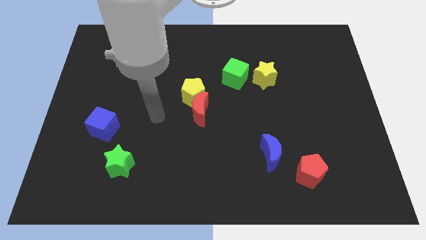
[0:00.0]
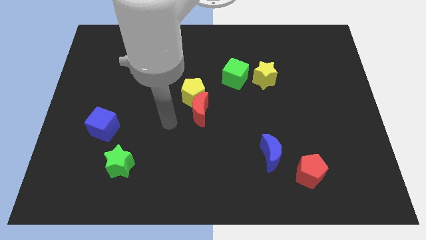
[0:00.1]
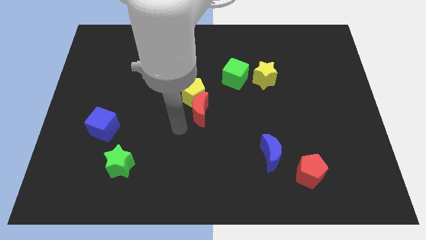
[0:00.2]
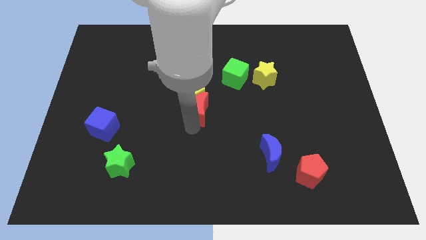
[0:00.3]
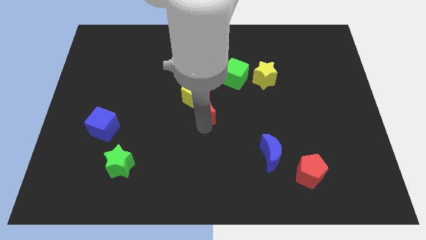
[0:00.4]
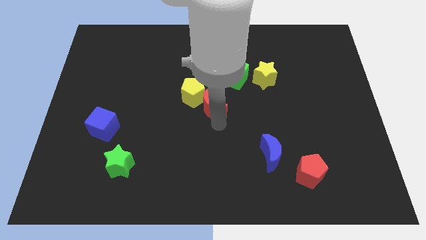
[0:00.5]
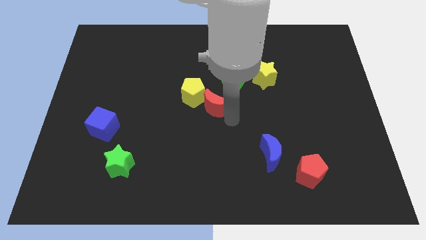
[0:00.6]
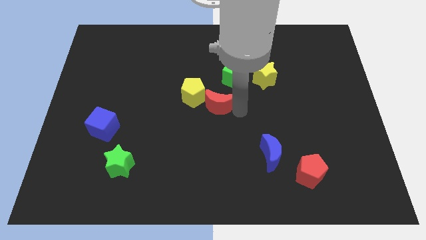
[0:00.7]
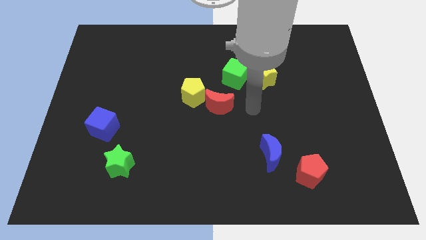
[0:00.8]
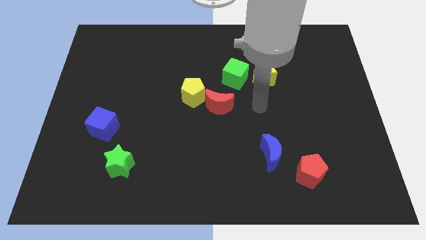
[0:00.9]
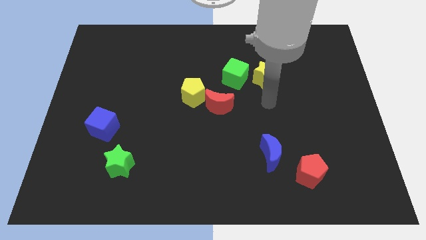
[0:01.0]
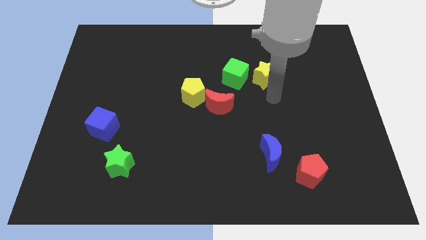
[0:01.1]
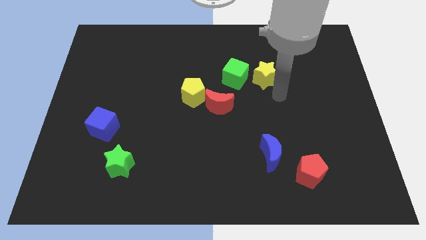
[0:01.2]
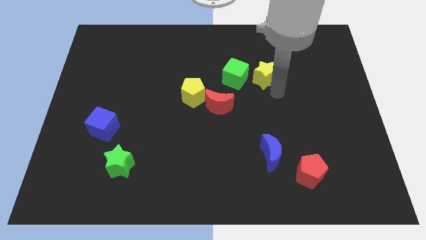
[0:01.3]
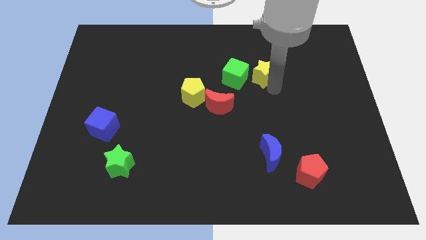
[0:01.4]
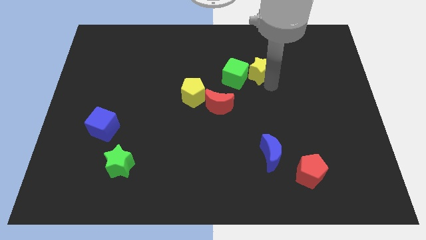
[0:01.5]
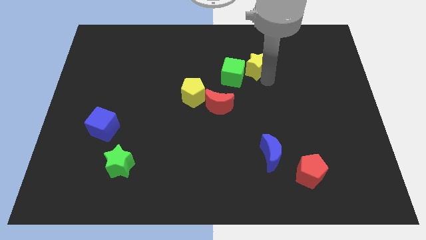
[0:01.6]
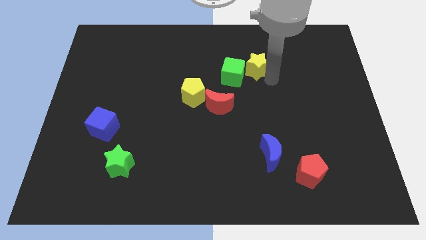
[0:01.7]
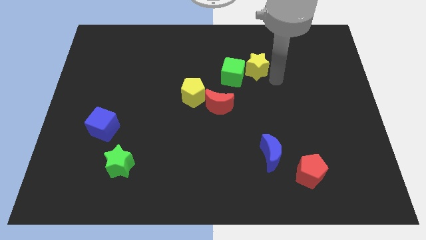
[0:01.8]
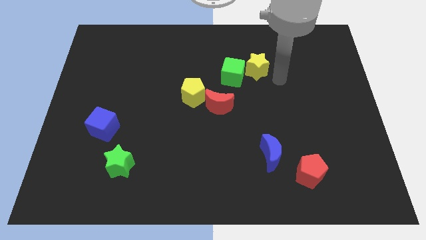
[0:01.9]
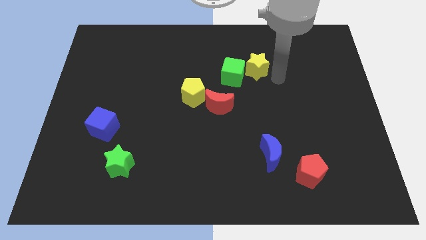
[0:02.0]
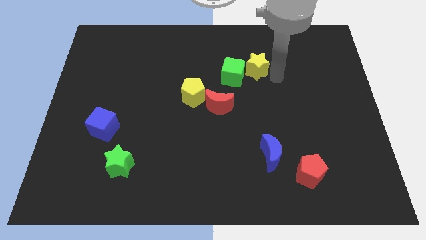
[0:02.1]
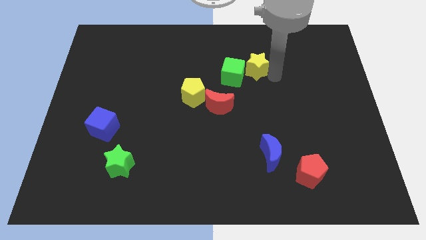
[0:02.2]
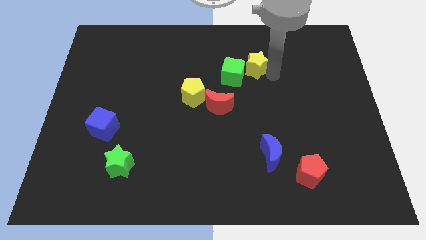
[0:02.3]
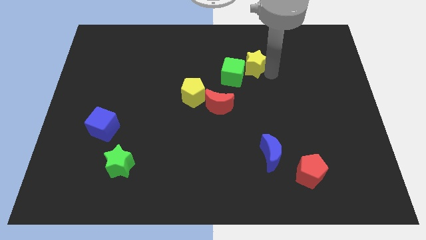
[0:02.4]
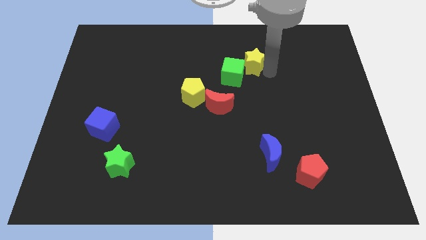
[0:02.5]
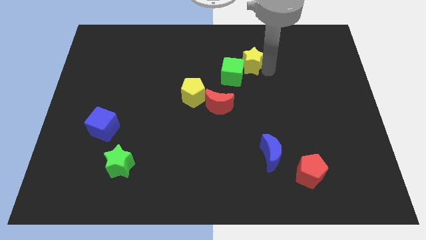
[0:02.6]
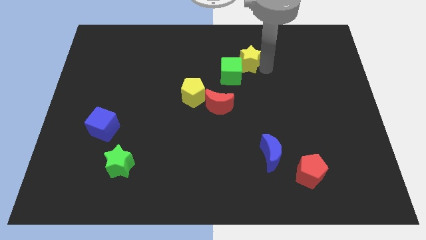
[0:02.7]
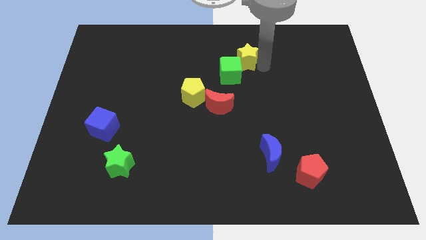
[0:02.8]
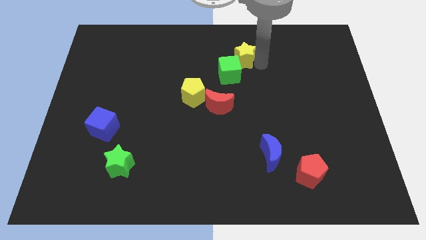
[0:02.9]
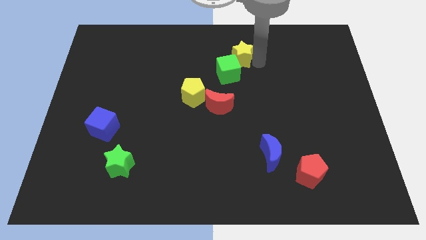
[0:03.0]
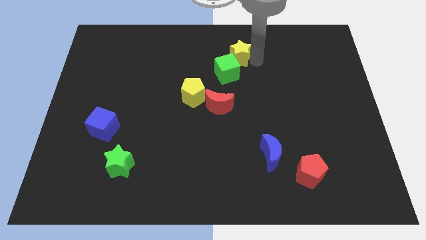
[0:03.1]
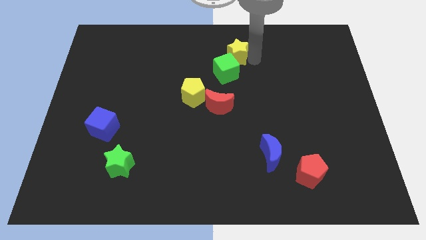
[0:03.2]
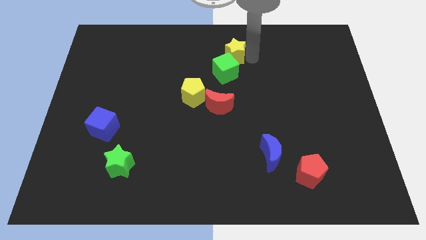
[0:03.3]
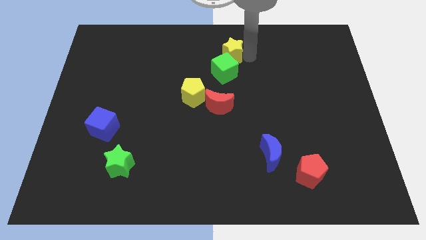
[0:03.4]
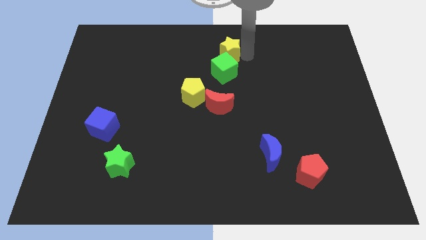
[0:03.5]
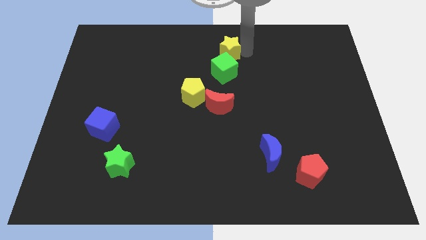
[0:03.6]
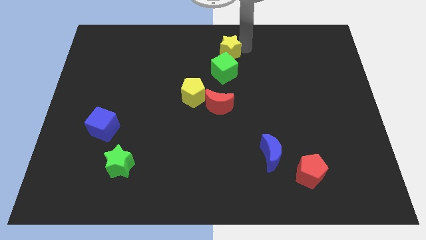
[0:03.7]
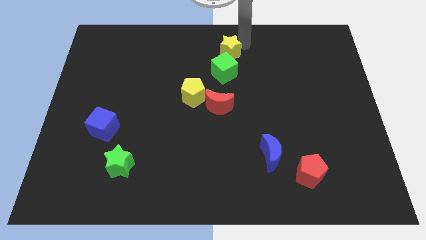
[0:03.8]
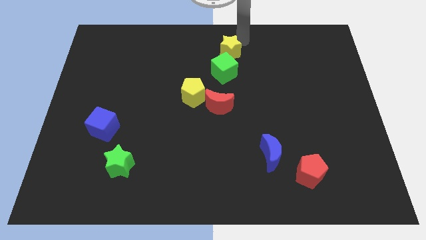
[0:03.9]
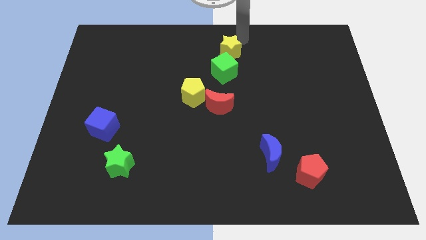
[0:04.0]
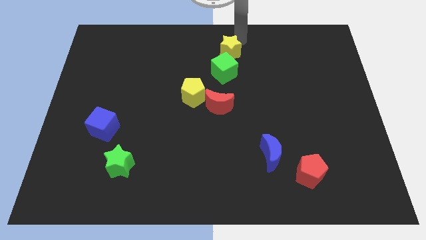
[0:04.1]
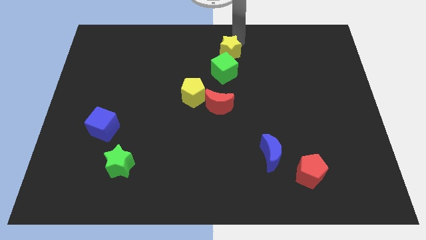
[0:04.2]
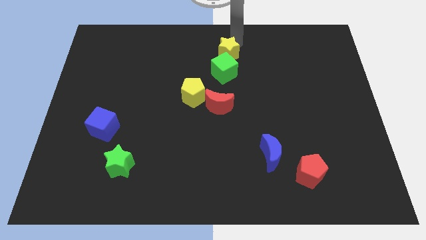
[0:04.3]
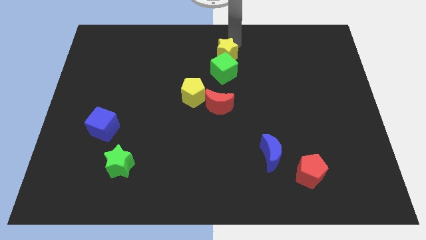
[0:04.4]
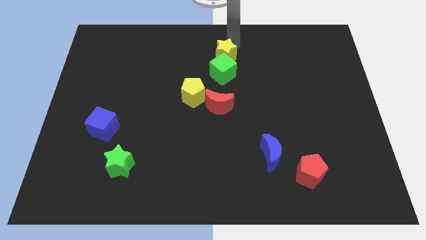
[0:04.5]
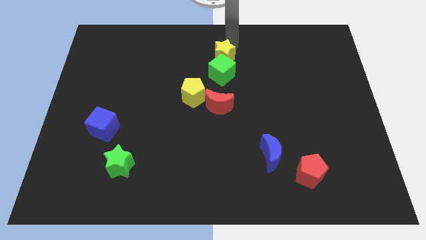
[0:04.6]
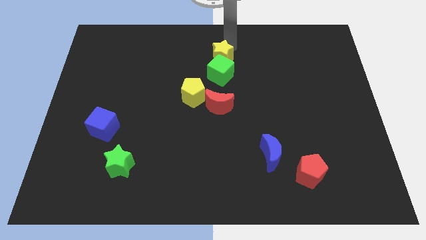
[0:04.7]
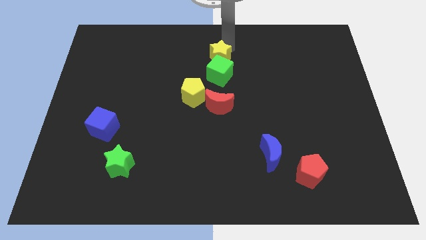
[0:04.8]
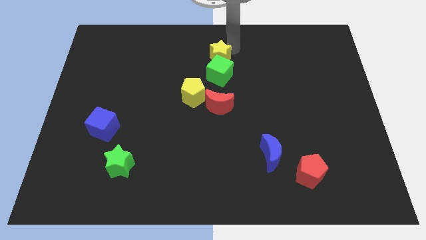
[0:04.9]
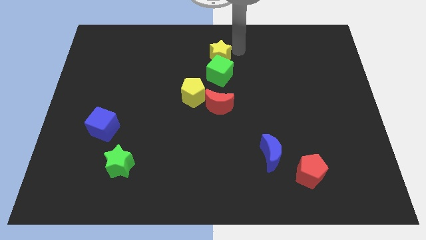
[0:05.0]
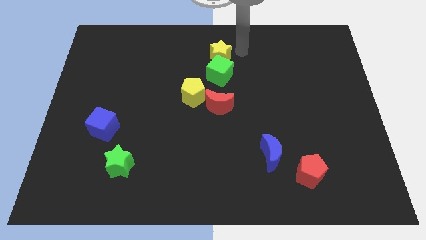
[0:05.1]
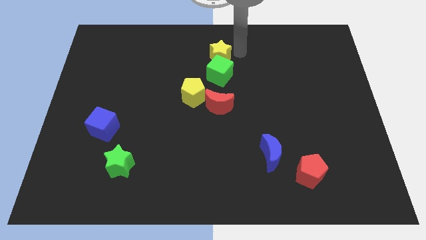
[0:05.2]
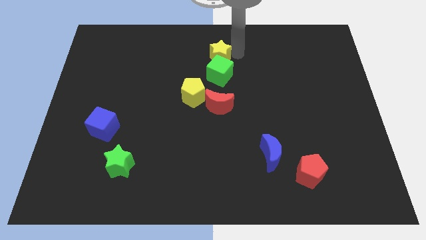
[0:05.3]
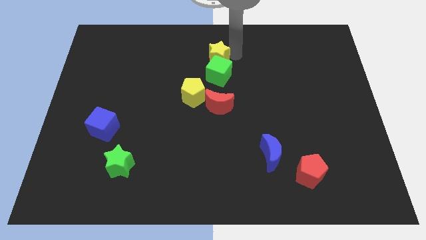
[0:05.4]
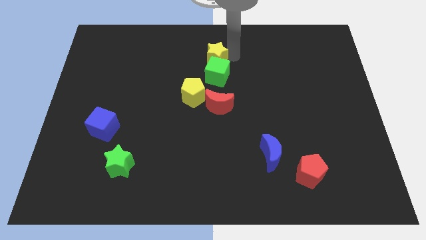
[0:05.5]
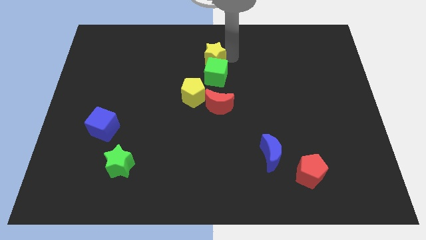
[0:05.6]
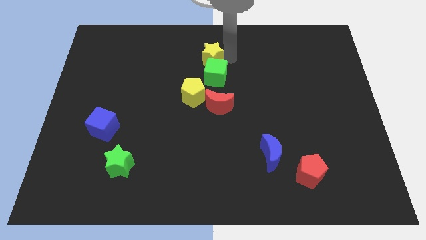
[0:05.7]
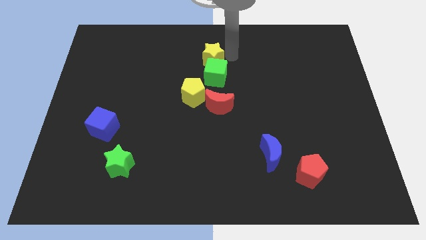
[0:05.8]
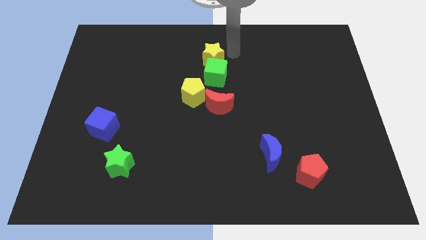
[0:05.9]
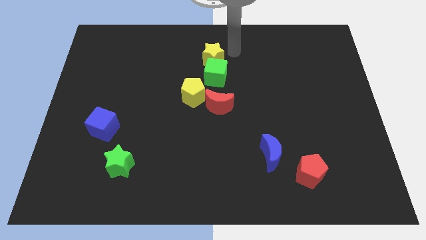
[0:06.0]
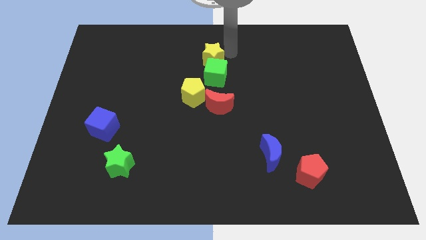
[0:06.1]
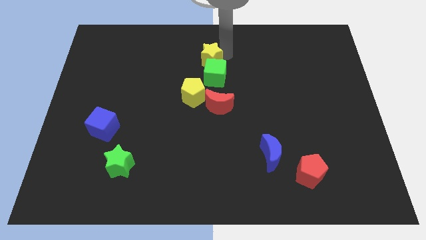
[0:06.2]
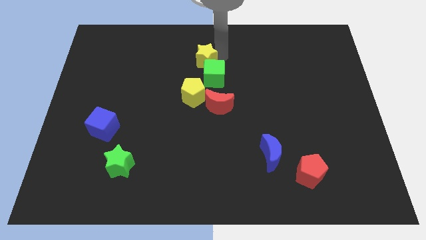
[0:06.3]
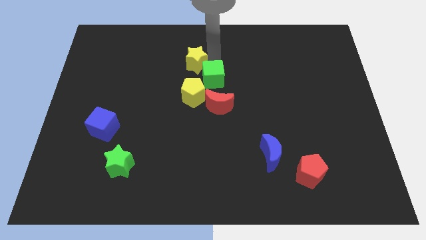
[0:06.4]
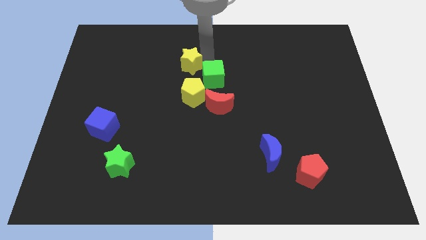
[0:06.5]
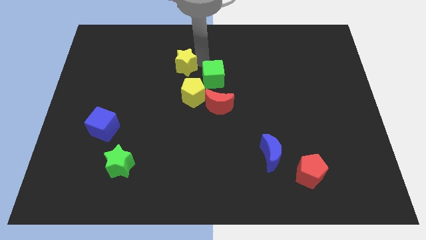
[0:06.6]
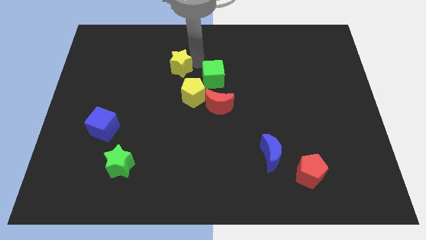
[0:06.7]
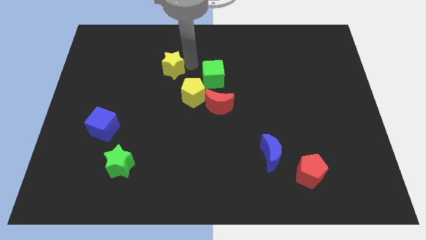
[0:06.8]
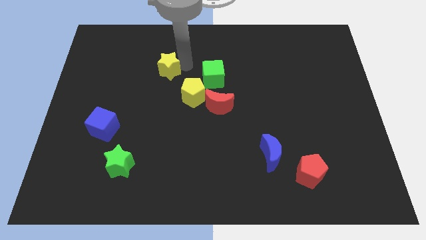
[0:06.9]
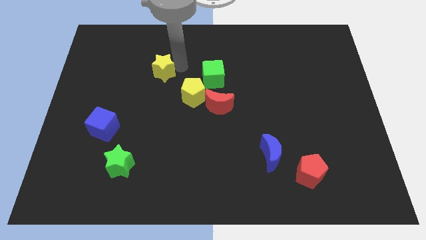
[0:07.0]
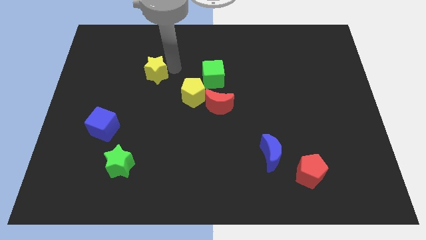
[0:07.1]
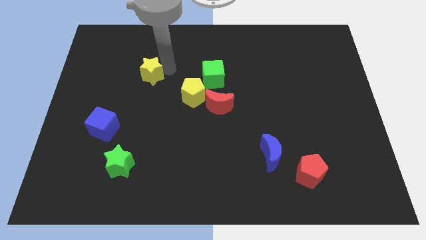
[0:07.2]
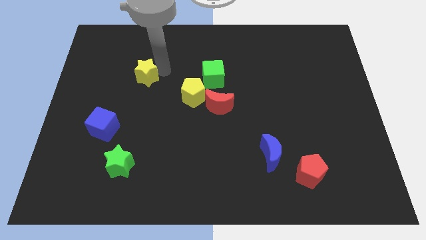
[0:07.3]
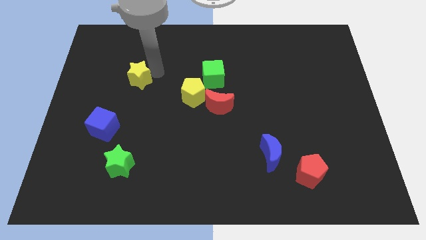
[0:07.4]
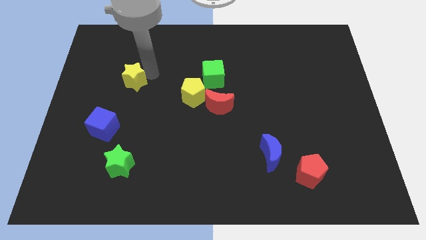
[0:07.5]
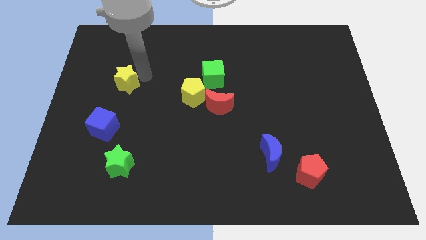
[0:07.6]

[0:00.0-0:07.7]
push the yellow star to the top of the blue cube

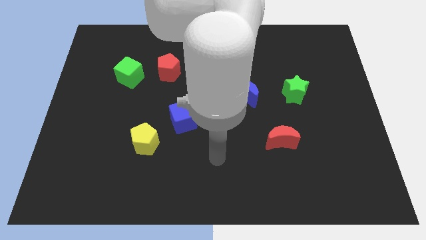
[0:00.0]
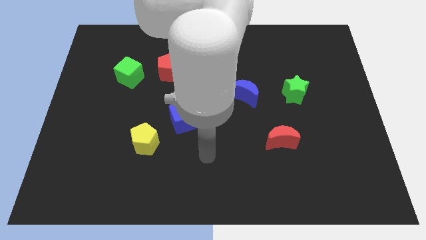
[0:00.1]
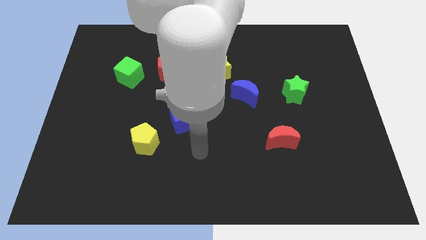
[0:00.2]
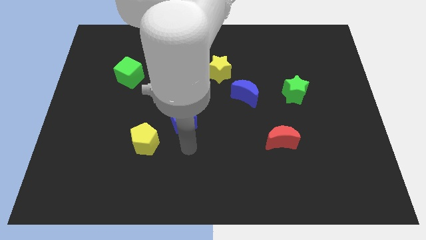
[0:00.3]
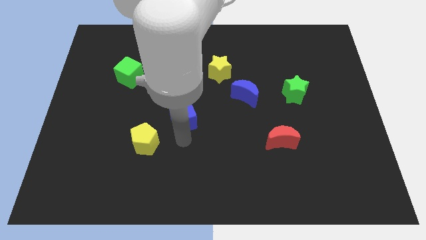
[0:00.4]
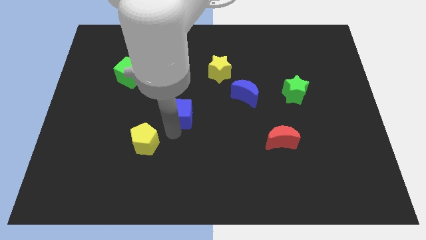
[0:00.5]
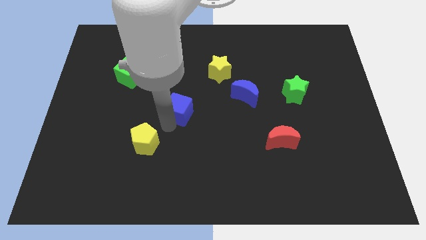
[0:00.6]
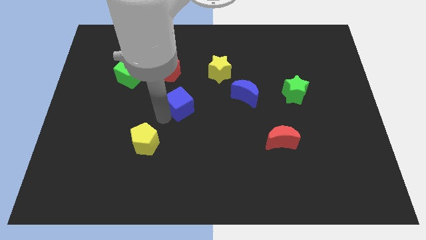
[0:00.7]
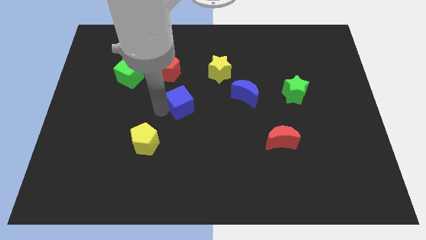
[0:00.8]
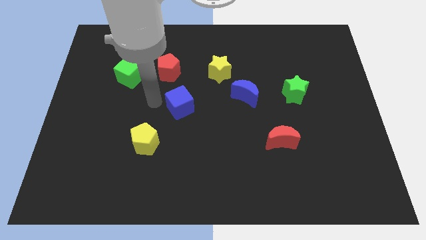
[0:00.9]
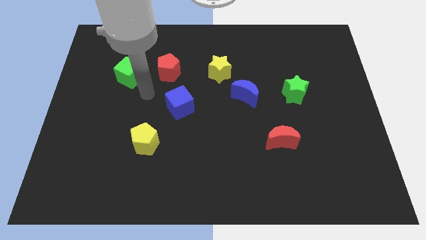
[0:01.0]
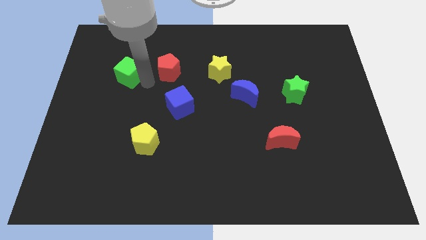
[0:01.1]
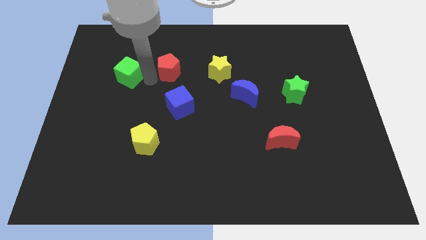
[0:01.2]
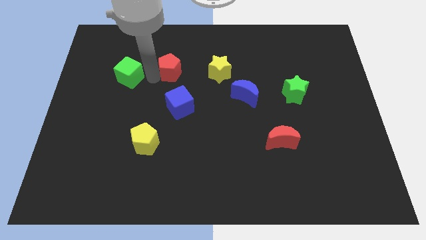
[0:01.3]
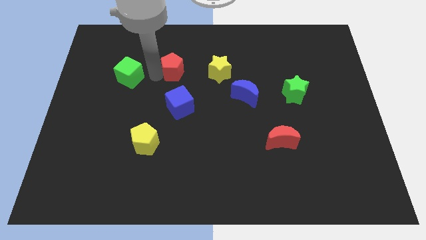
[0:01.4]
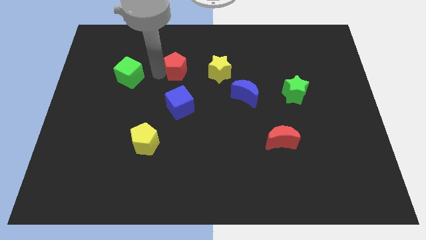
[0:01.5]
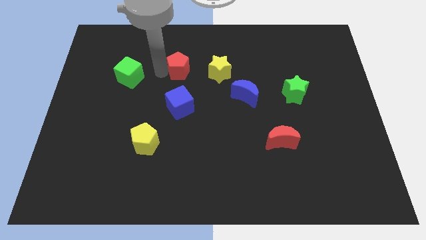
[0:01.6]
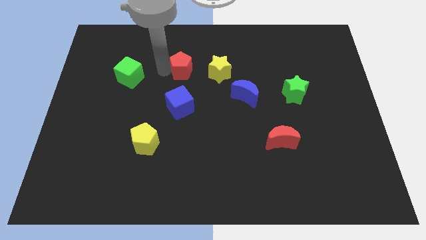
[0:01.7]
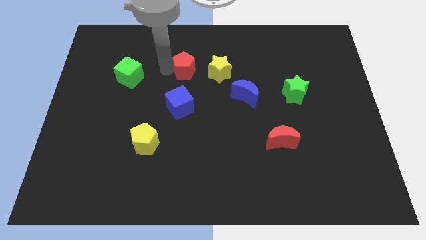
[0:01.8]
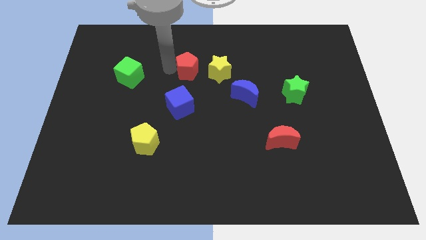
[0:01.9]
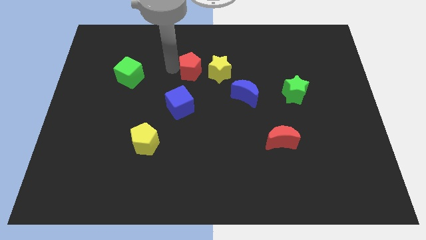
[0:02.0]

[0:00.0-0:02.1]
put the red pentagon to the top left of the yellow star
